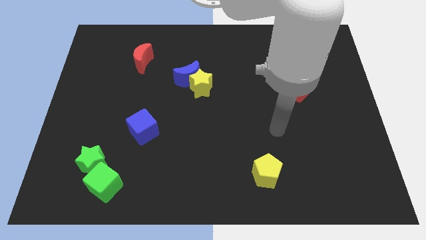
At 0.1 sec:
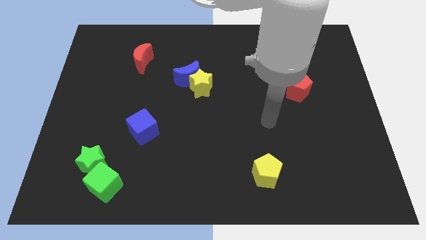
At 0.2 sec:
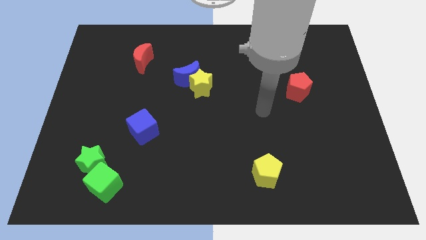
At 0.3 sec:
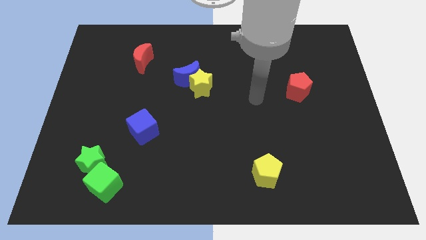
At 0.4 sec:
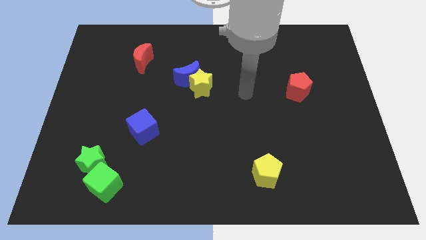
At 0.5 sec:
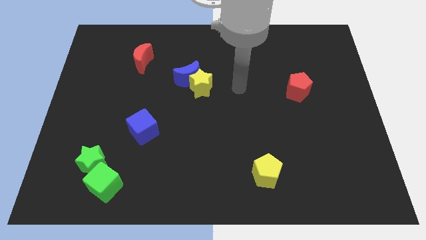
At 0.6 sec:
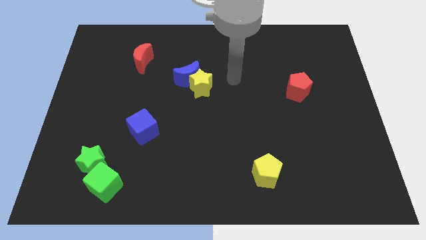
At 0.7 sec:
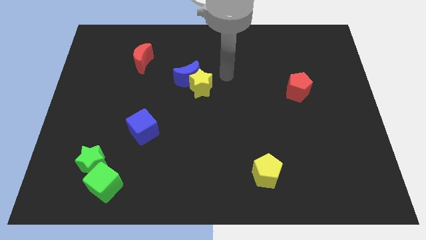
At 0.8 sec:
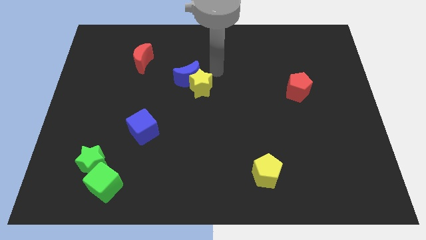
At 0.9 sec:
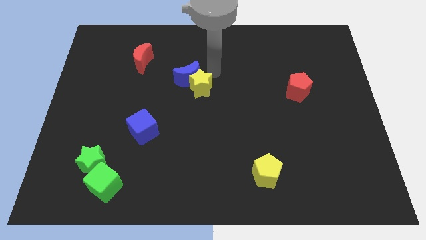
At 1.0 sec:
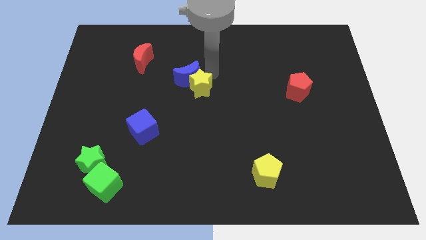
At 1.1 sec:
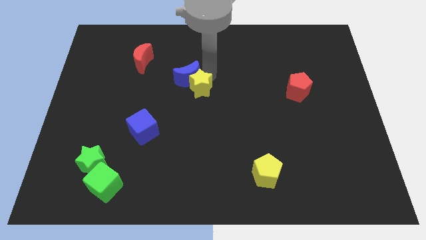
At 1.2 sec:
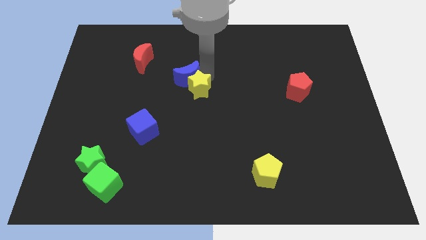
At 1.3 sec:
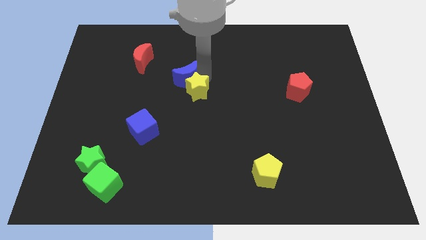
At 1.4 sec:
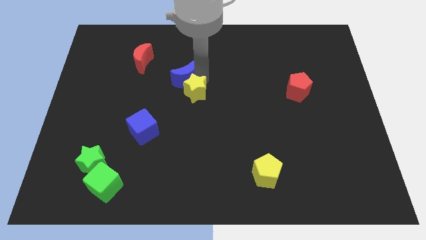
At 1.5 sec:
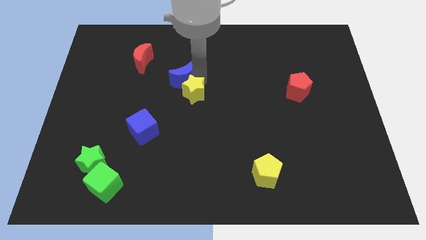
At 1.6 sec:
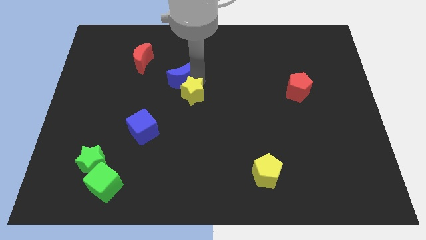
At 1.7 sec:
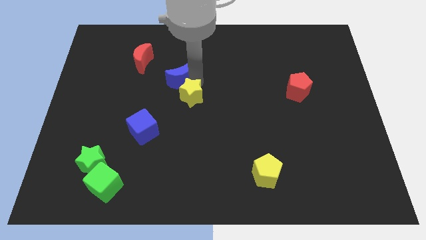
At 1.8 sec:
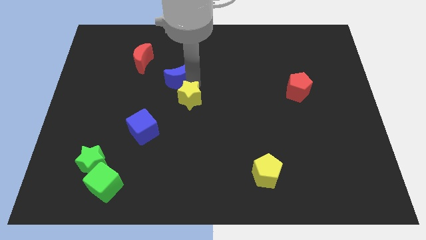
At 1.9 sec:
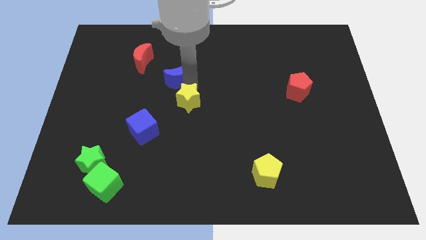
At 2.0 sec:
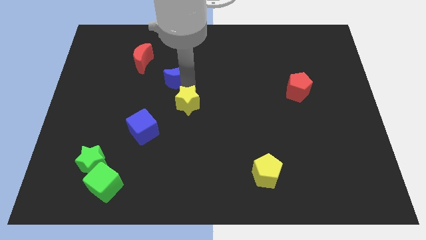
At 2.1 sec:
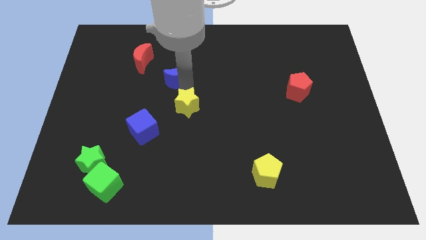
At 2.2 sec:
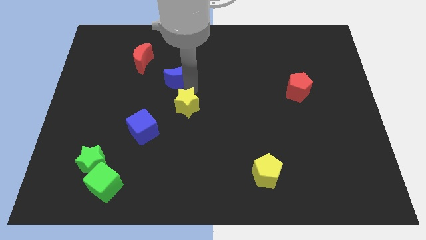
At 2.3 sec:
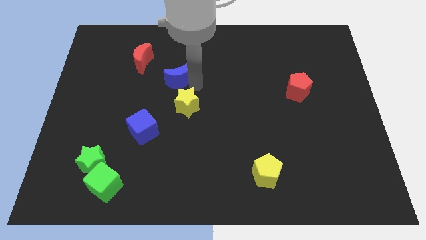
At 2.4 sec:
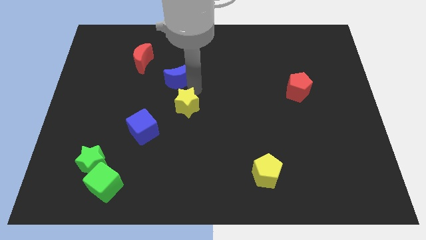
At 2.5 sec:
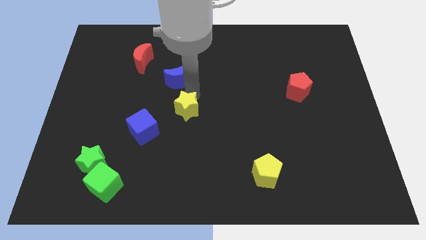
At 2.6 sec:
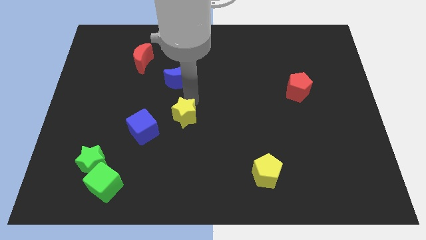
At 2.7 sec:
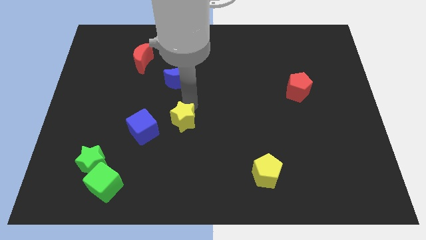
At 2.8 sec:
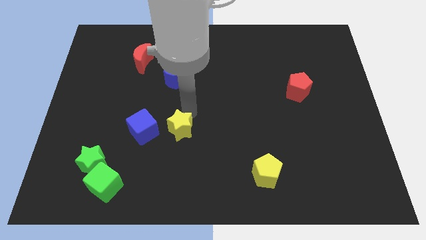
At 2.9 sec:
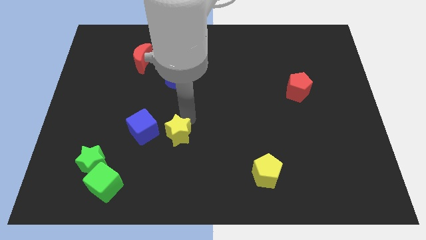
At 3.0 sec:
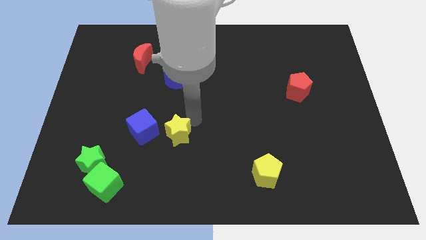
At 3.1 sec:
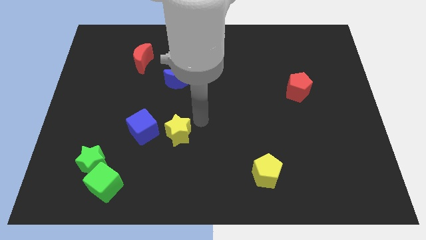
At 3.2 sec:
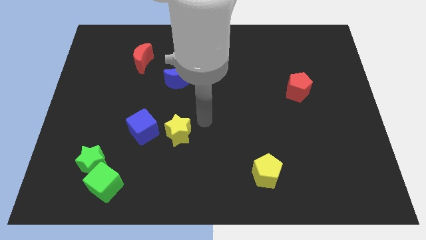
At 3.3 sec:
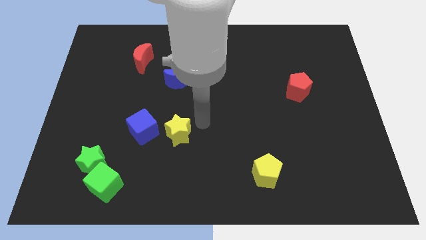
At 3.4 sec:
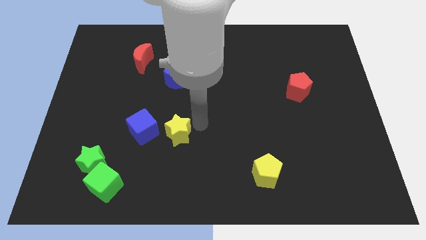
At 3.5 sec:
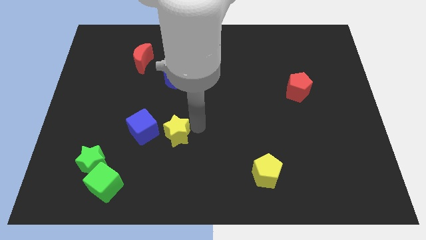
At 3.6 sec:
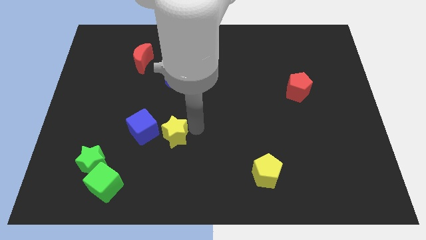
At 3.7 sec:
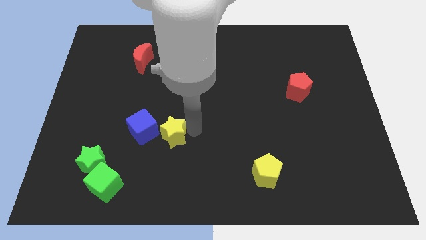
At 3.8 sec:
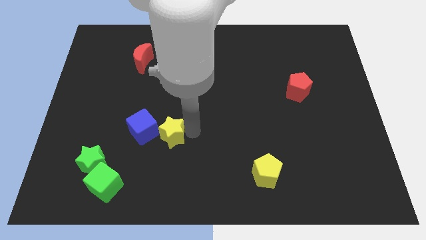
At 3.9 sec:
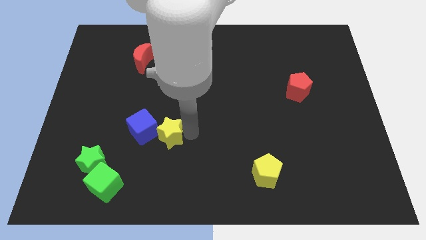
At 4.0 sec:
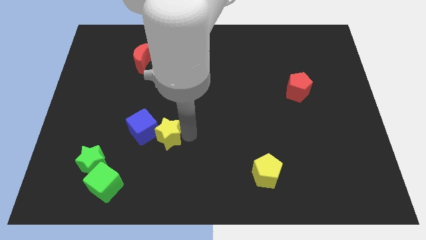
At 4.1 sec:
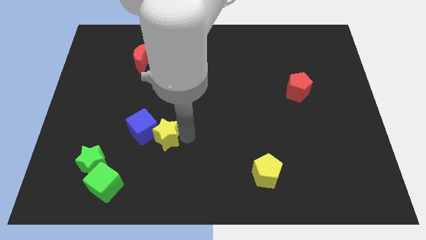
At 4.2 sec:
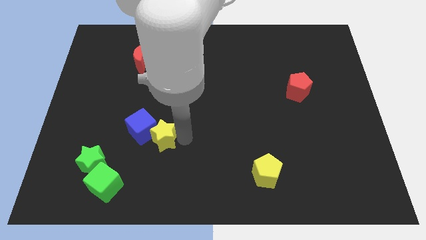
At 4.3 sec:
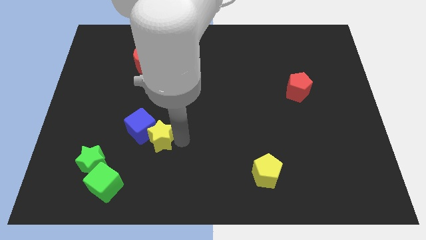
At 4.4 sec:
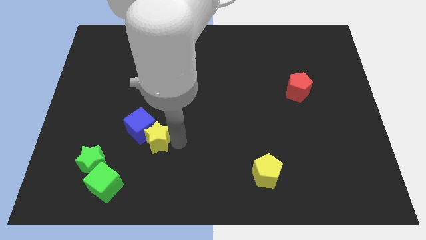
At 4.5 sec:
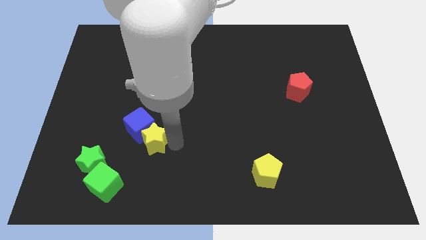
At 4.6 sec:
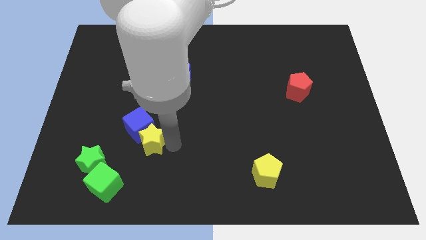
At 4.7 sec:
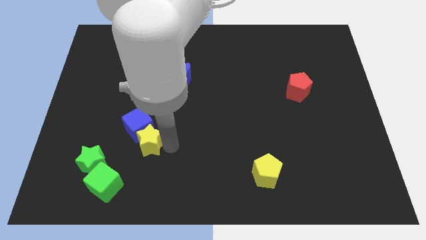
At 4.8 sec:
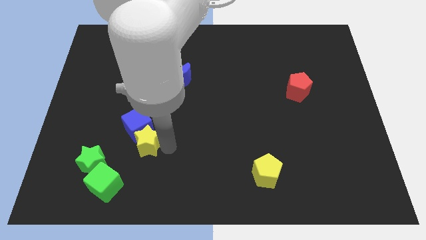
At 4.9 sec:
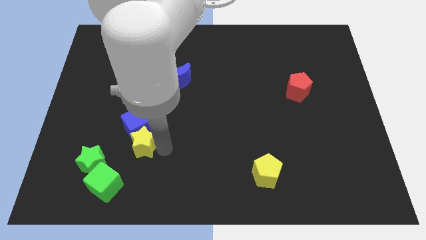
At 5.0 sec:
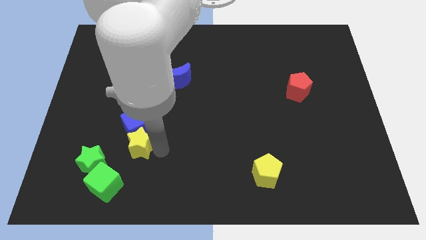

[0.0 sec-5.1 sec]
slide the yellow star to the bottom left side of the blue cube

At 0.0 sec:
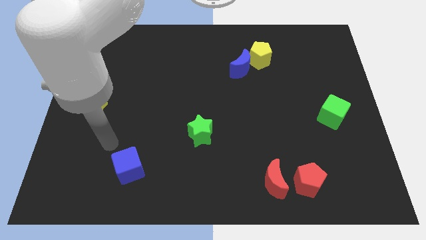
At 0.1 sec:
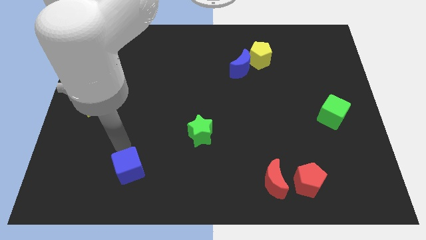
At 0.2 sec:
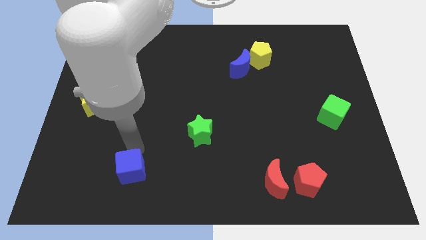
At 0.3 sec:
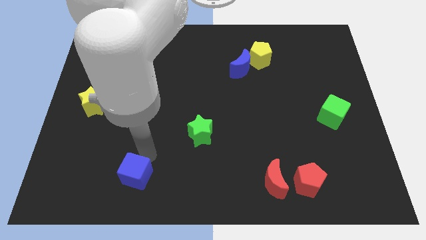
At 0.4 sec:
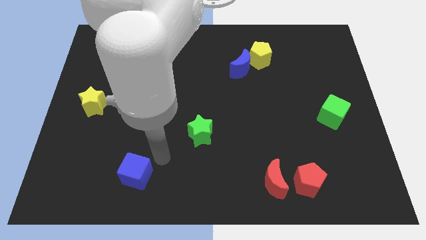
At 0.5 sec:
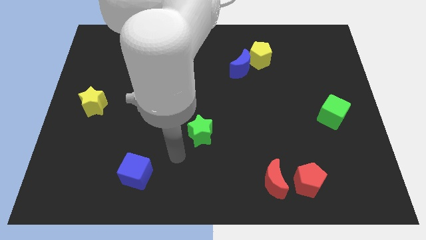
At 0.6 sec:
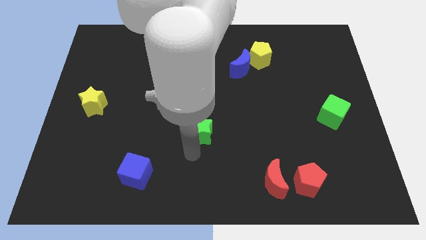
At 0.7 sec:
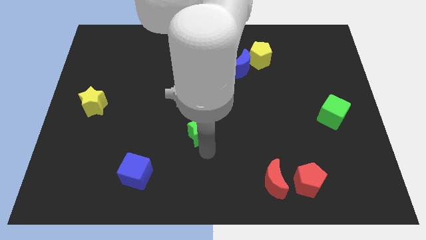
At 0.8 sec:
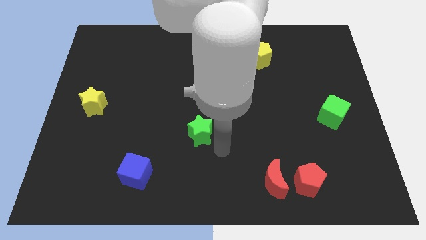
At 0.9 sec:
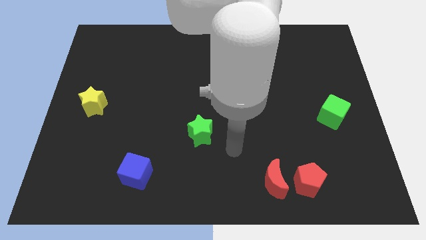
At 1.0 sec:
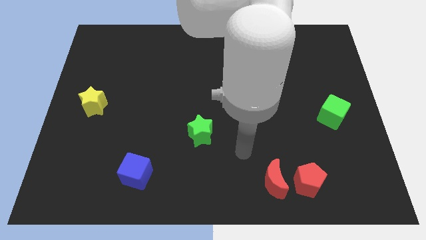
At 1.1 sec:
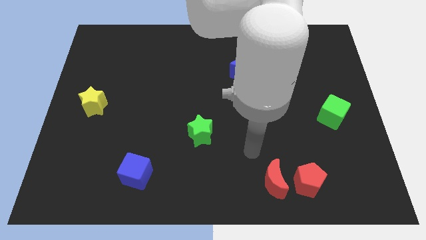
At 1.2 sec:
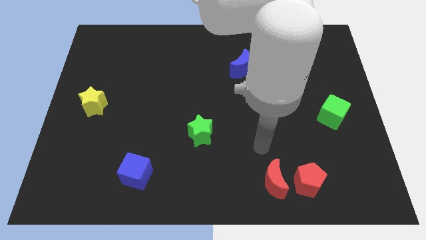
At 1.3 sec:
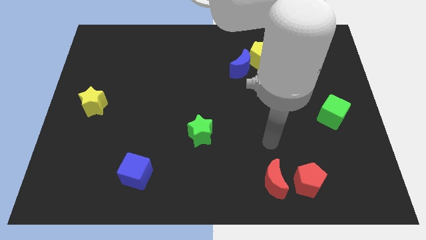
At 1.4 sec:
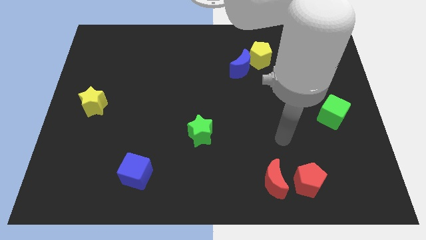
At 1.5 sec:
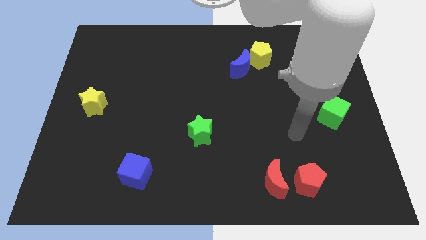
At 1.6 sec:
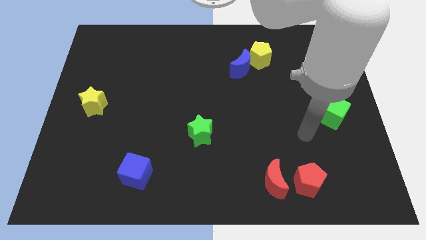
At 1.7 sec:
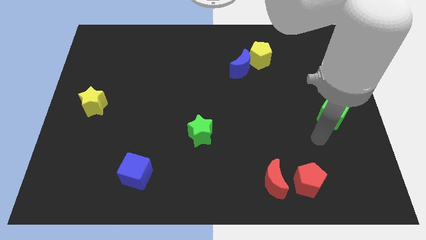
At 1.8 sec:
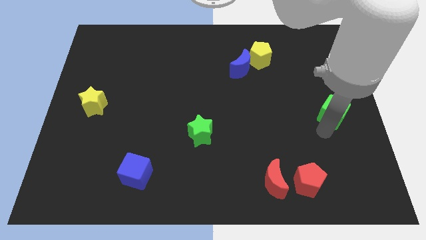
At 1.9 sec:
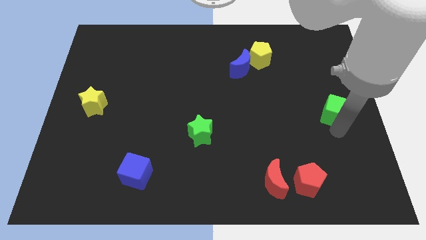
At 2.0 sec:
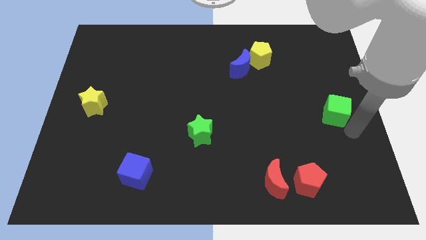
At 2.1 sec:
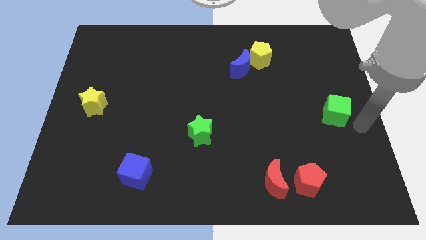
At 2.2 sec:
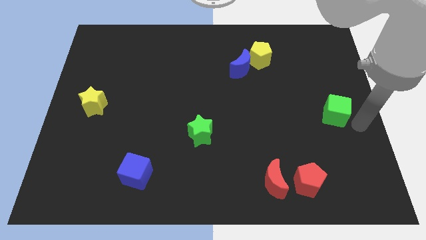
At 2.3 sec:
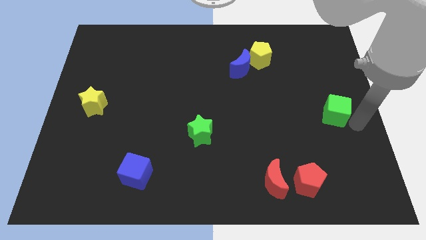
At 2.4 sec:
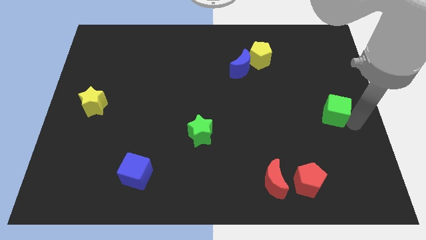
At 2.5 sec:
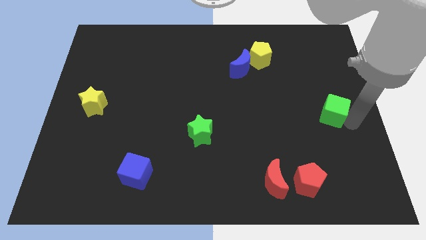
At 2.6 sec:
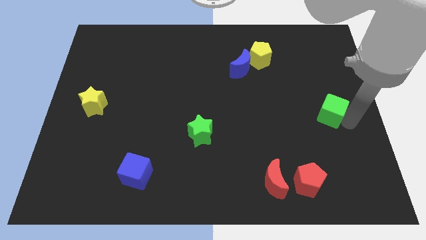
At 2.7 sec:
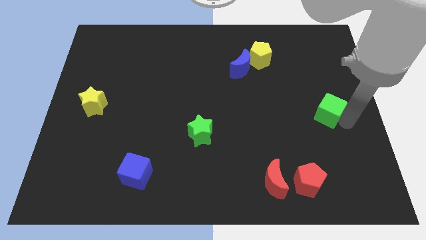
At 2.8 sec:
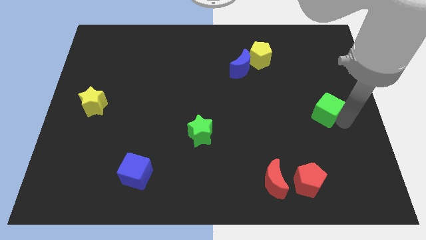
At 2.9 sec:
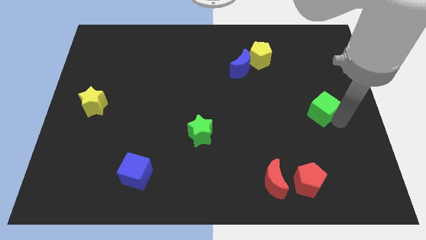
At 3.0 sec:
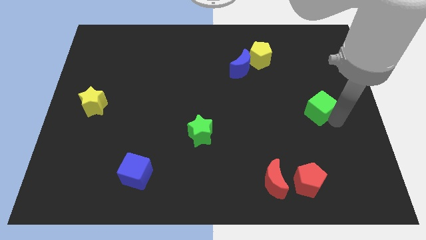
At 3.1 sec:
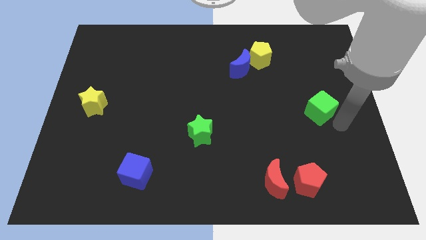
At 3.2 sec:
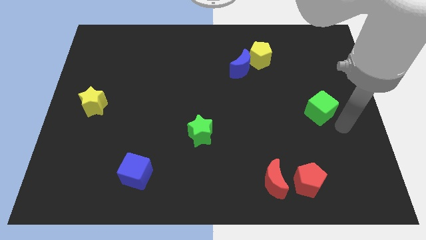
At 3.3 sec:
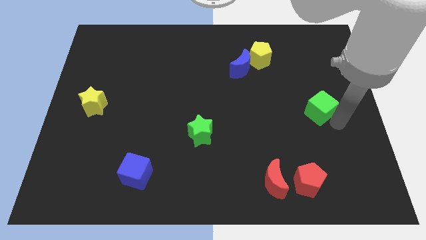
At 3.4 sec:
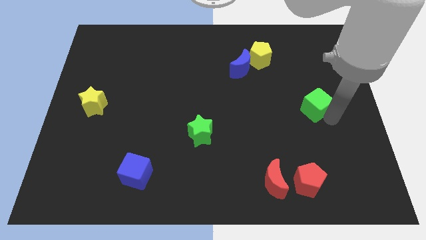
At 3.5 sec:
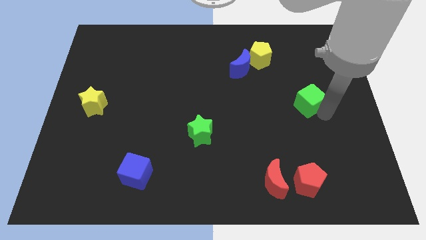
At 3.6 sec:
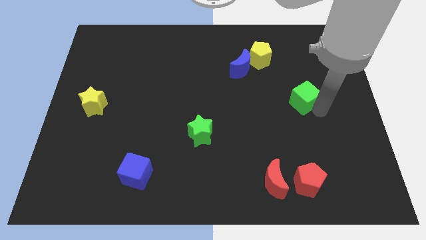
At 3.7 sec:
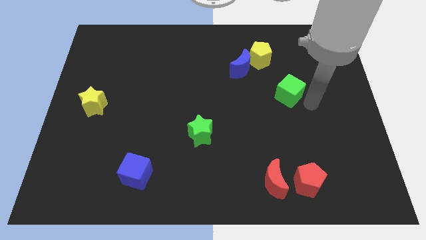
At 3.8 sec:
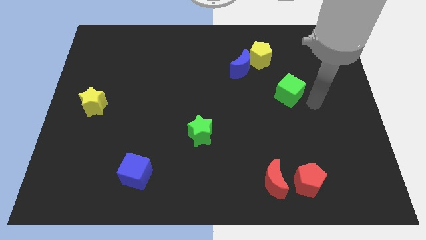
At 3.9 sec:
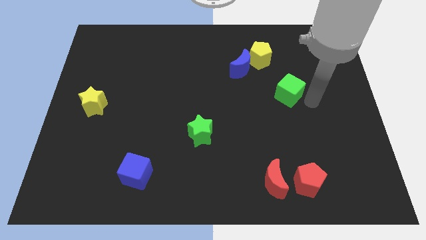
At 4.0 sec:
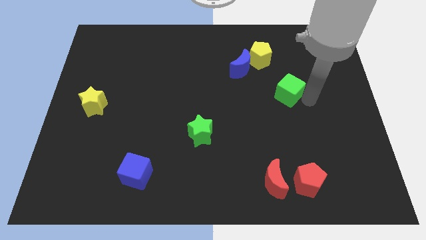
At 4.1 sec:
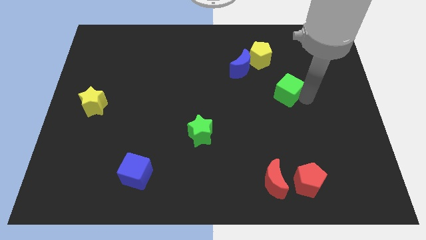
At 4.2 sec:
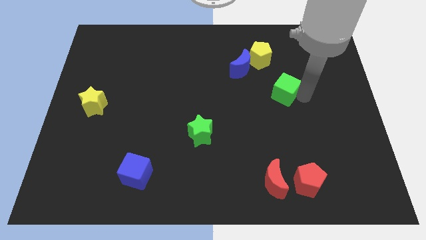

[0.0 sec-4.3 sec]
put the green cube to the bottom right of the blue moon
